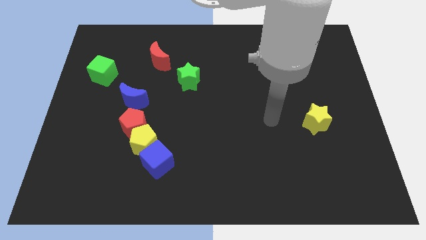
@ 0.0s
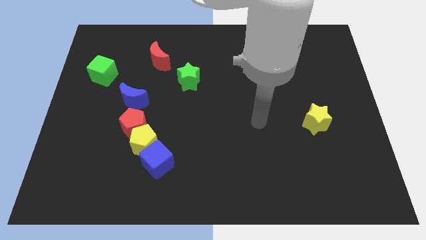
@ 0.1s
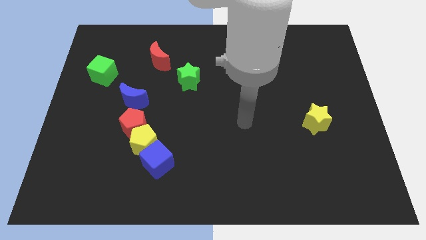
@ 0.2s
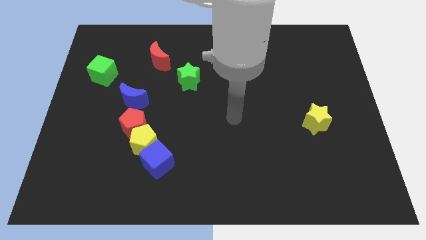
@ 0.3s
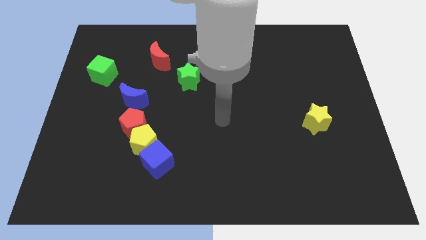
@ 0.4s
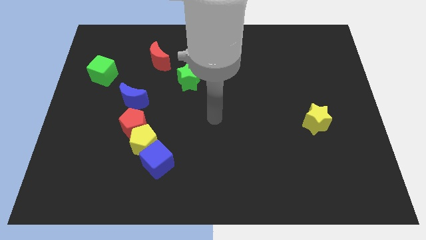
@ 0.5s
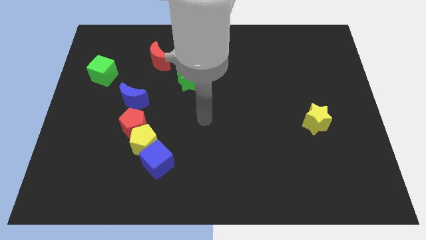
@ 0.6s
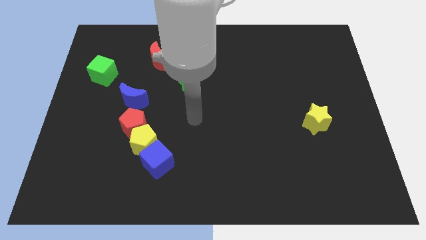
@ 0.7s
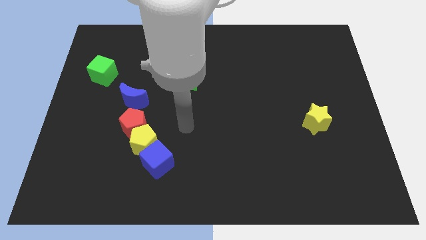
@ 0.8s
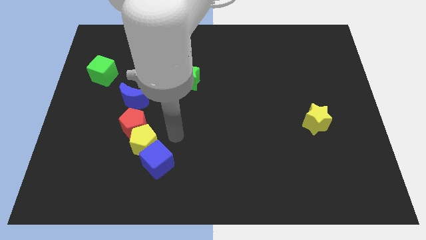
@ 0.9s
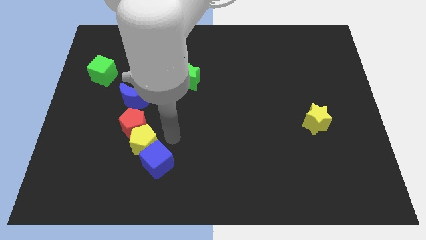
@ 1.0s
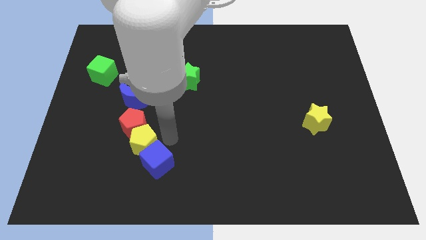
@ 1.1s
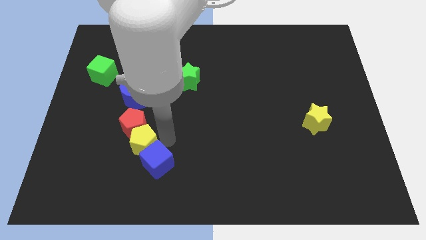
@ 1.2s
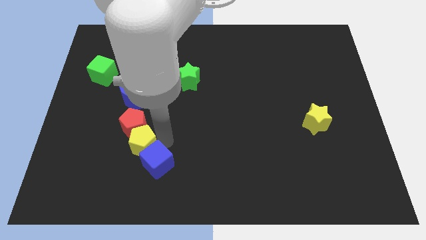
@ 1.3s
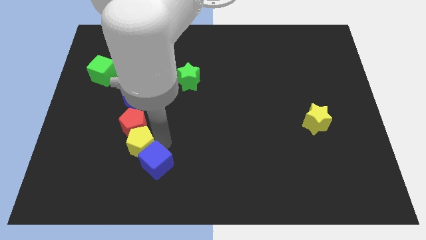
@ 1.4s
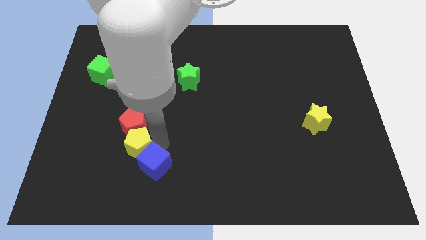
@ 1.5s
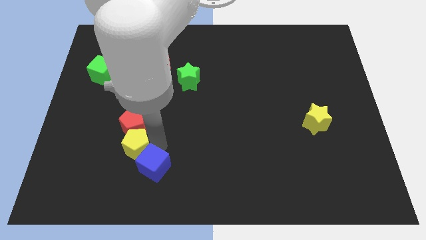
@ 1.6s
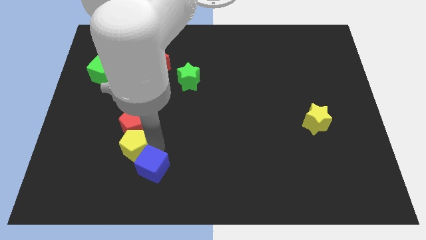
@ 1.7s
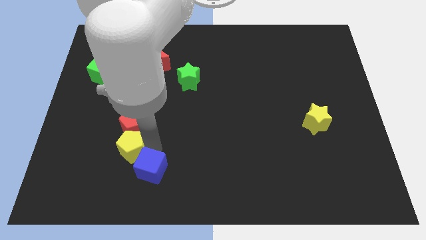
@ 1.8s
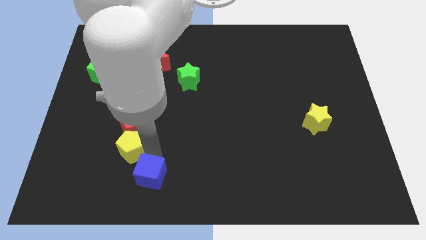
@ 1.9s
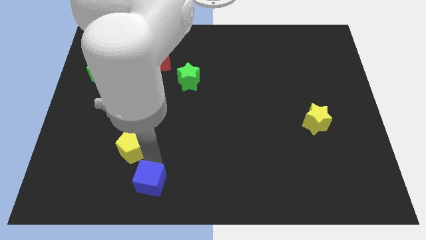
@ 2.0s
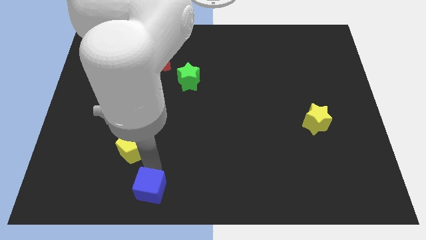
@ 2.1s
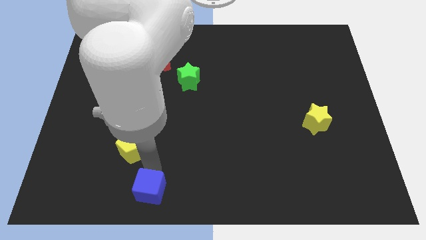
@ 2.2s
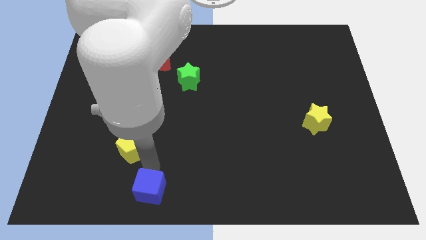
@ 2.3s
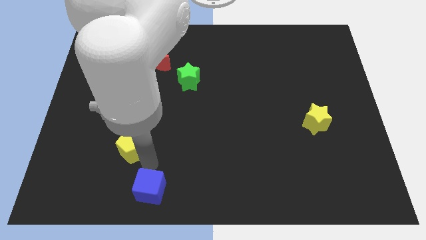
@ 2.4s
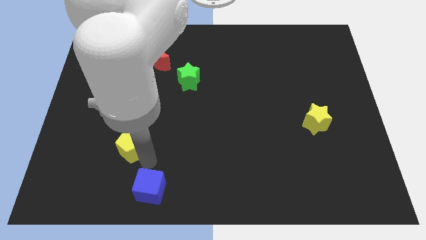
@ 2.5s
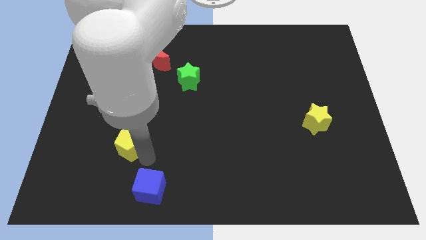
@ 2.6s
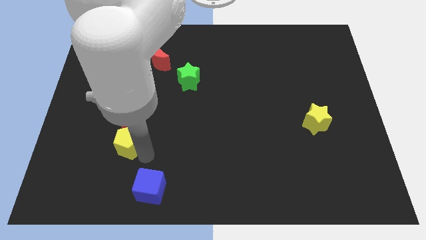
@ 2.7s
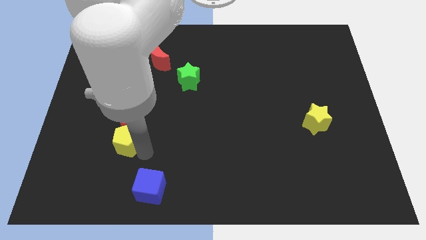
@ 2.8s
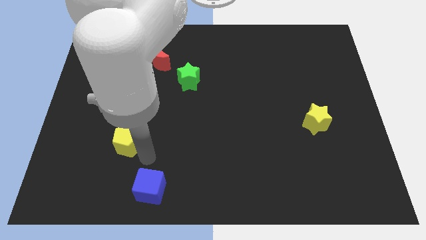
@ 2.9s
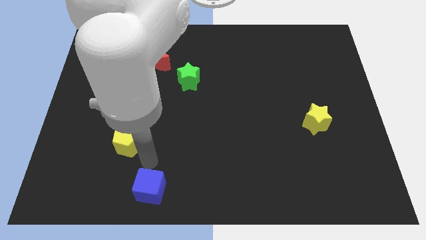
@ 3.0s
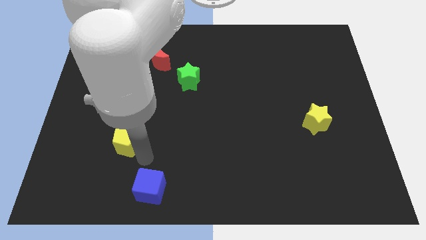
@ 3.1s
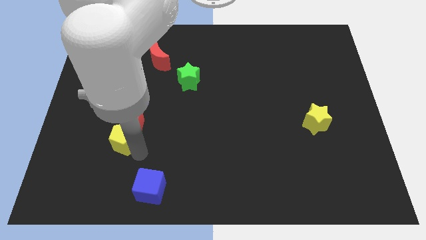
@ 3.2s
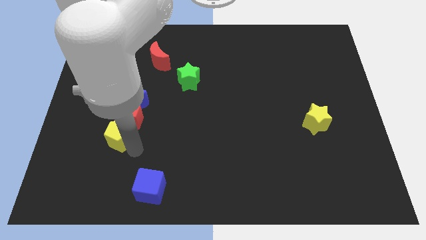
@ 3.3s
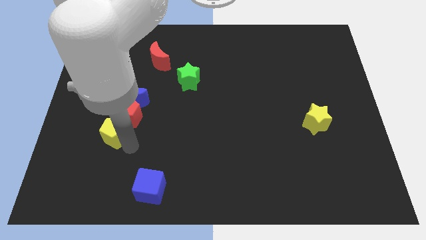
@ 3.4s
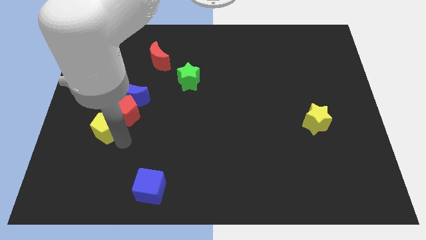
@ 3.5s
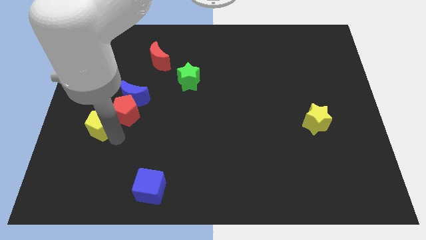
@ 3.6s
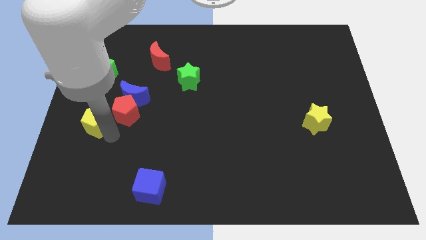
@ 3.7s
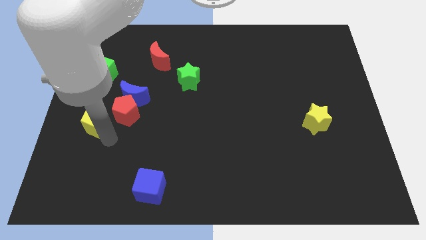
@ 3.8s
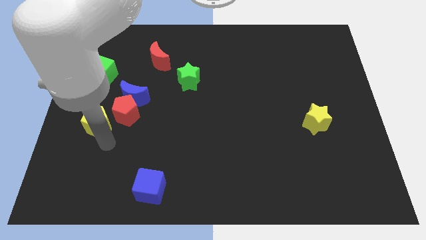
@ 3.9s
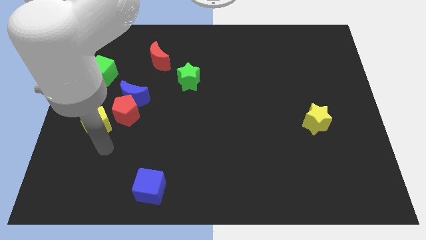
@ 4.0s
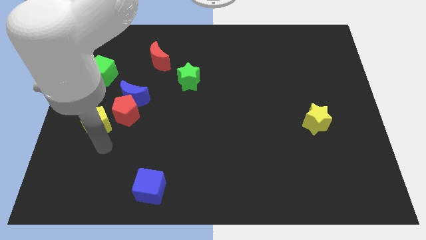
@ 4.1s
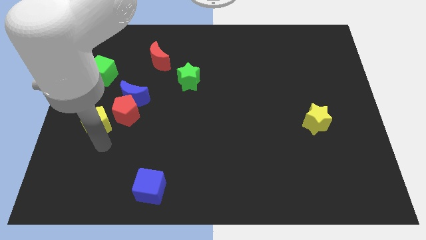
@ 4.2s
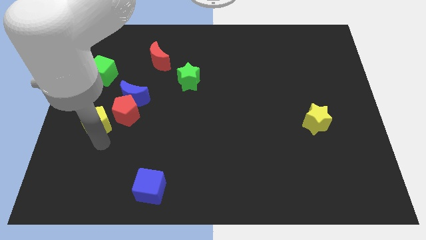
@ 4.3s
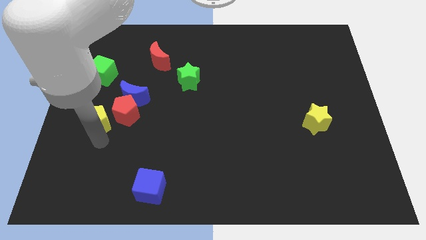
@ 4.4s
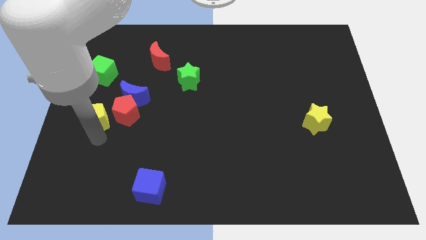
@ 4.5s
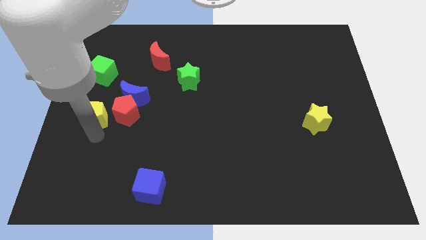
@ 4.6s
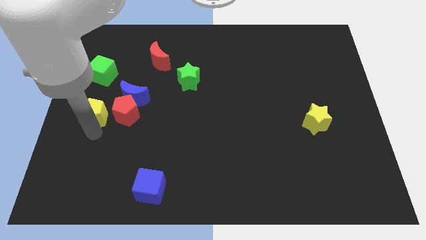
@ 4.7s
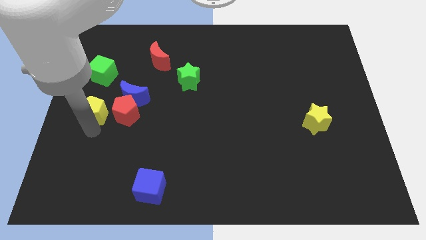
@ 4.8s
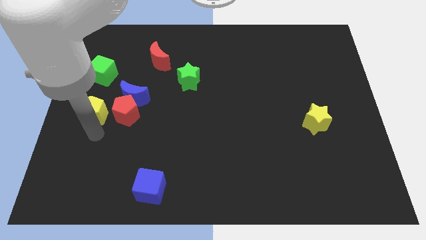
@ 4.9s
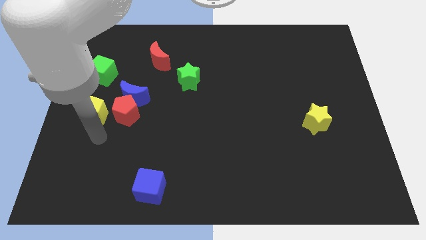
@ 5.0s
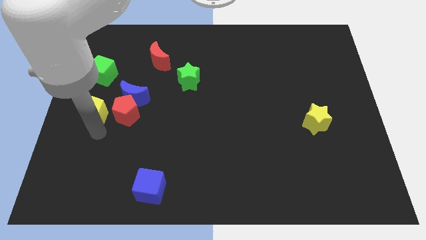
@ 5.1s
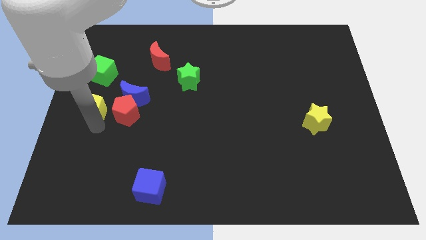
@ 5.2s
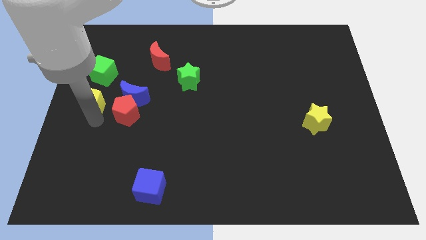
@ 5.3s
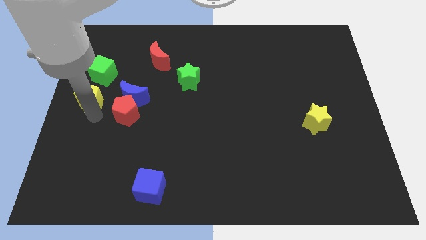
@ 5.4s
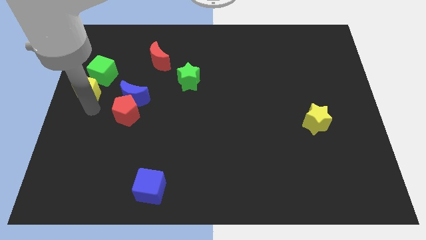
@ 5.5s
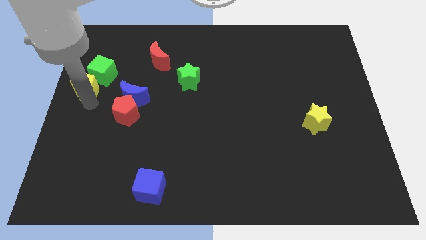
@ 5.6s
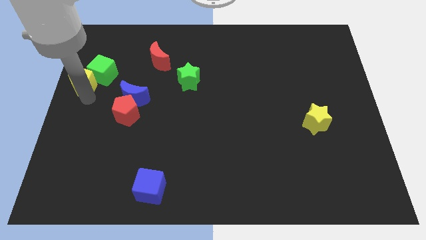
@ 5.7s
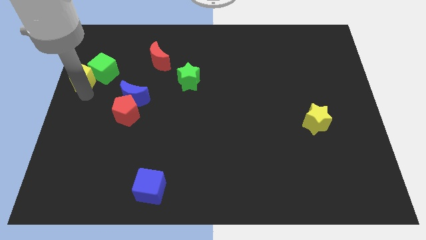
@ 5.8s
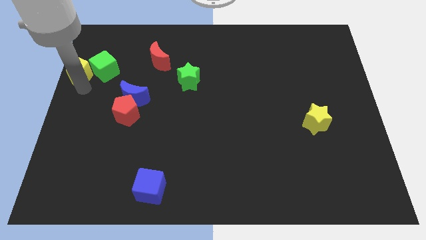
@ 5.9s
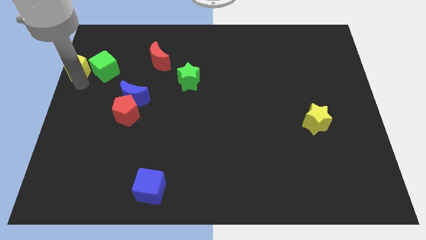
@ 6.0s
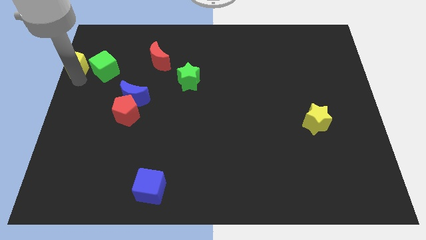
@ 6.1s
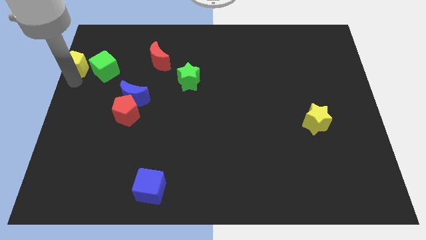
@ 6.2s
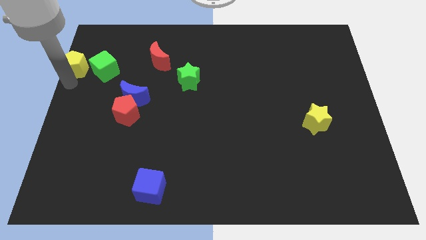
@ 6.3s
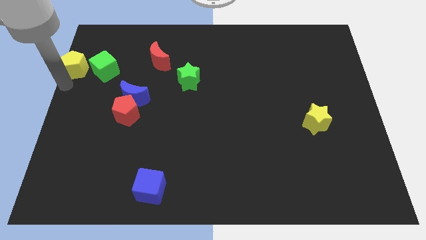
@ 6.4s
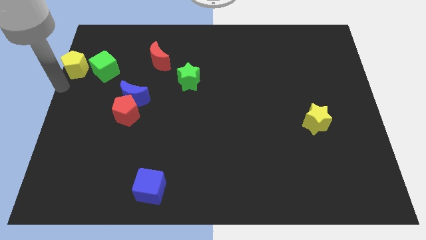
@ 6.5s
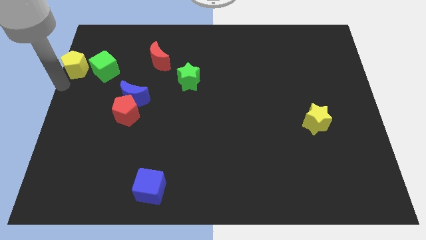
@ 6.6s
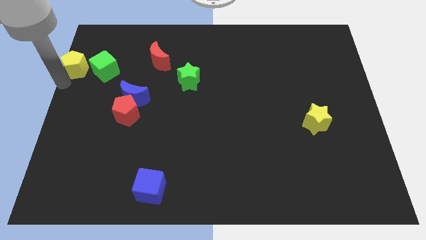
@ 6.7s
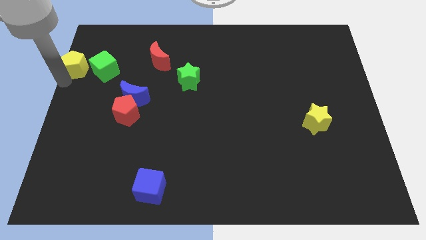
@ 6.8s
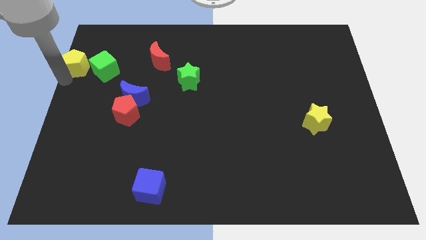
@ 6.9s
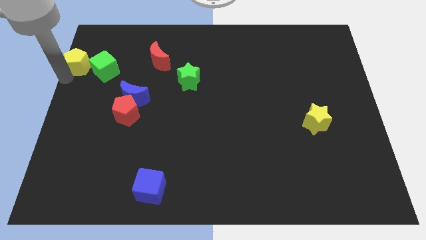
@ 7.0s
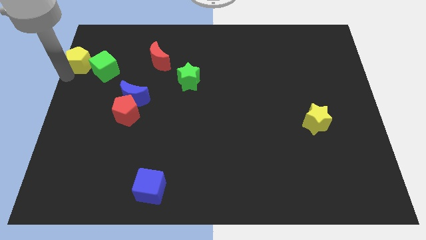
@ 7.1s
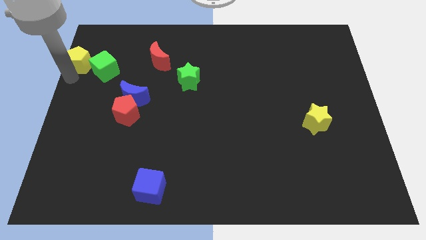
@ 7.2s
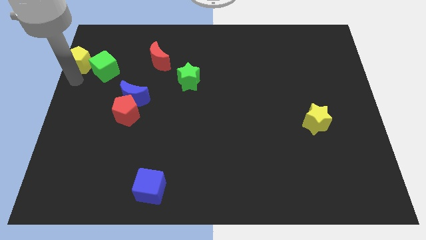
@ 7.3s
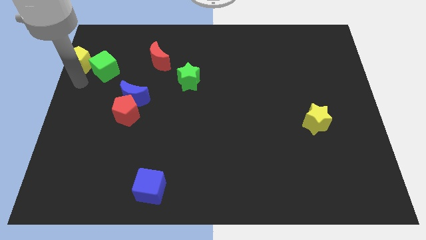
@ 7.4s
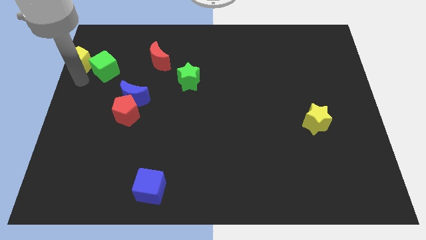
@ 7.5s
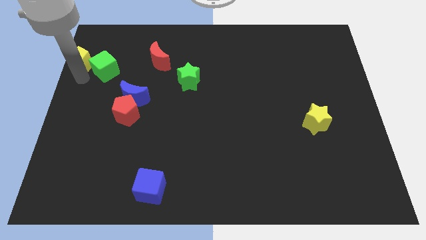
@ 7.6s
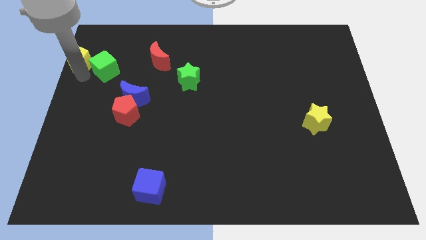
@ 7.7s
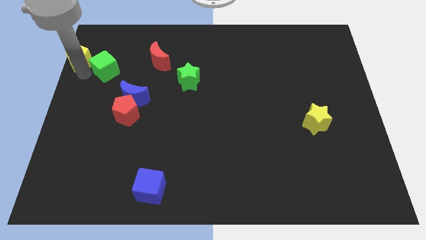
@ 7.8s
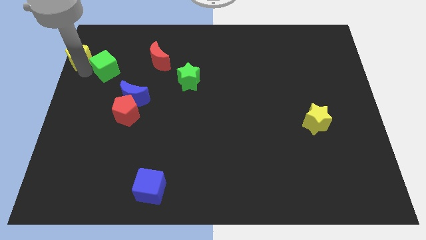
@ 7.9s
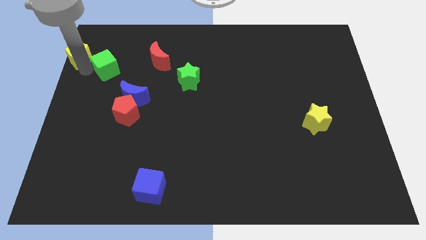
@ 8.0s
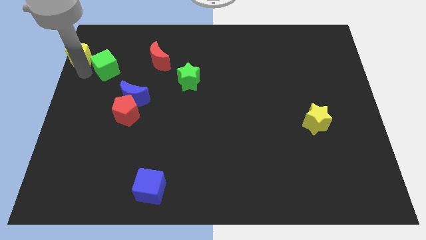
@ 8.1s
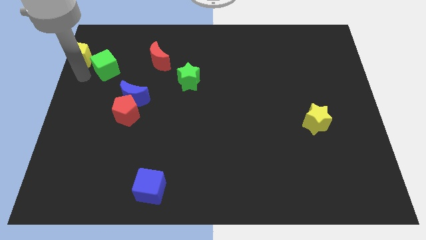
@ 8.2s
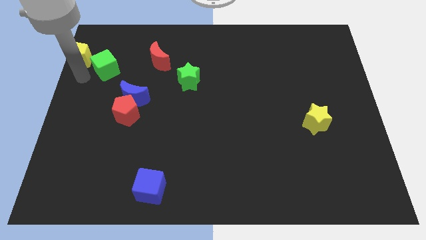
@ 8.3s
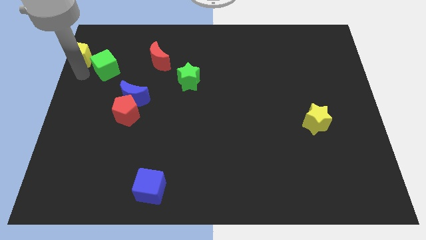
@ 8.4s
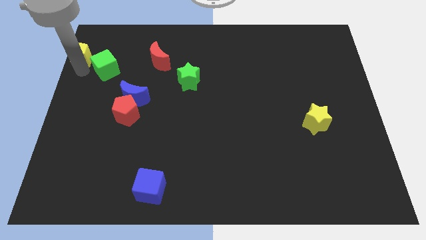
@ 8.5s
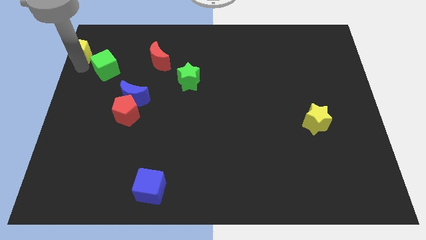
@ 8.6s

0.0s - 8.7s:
push the yellow pentagon to the top left corner
